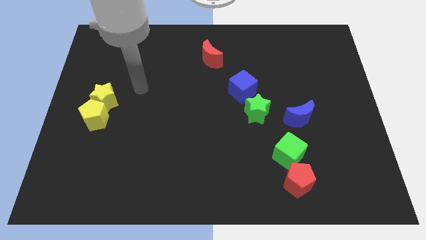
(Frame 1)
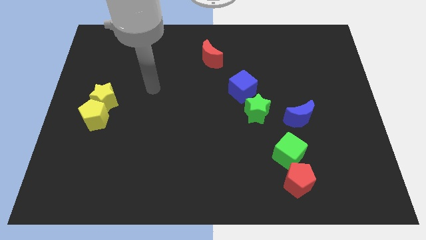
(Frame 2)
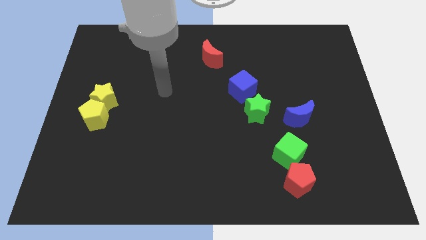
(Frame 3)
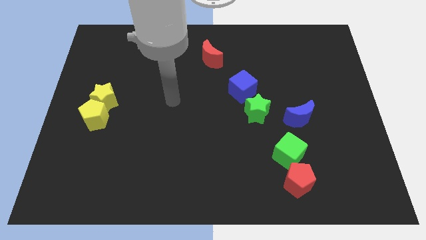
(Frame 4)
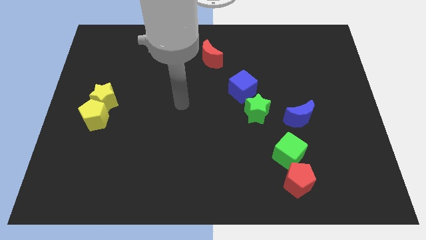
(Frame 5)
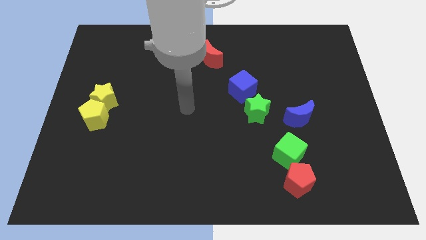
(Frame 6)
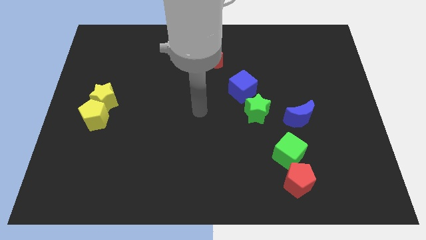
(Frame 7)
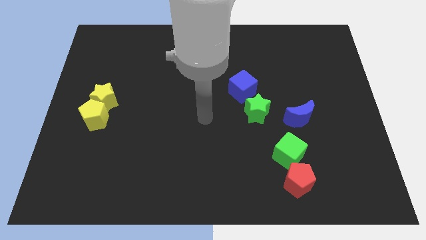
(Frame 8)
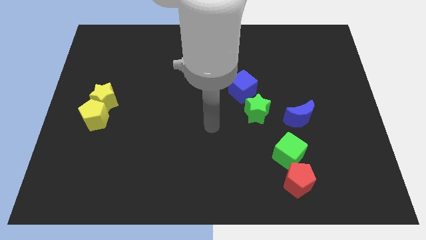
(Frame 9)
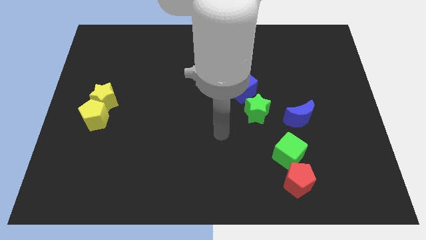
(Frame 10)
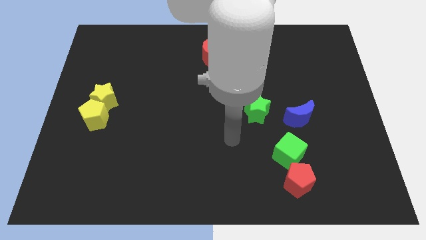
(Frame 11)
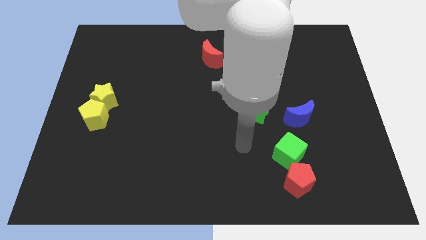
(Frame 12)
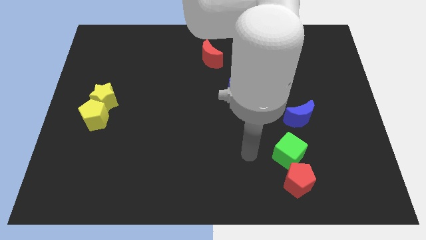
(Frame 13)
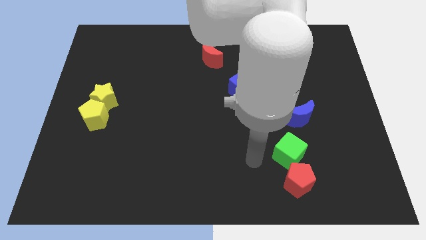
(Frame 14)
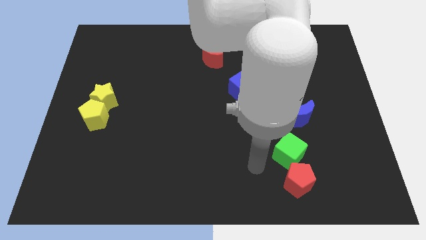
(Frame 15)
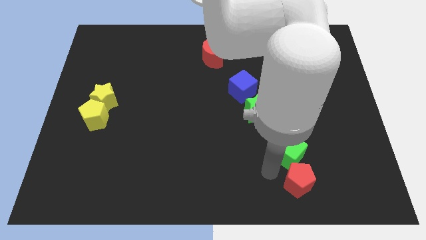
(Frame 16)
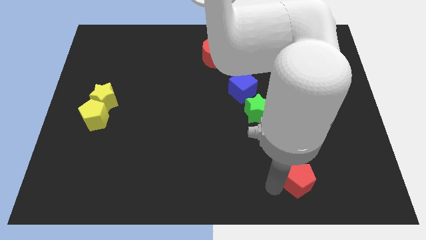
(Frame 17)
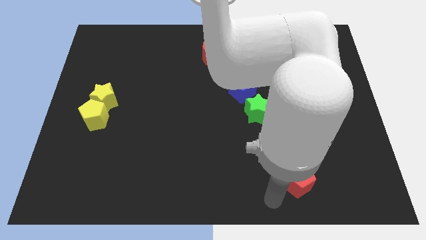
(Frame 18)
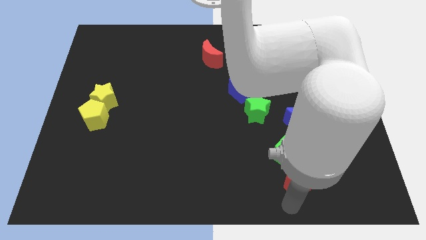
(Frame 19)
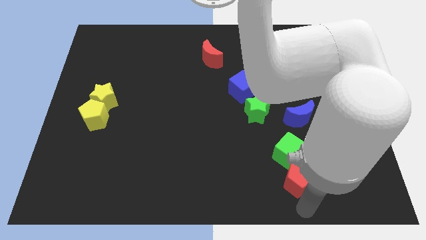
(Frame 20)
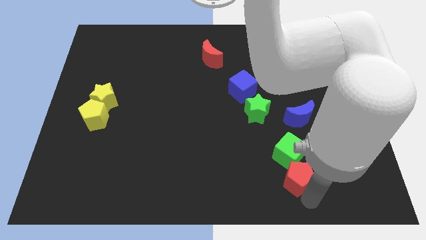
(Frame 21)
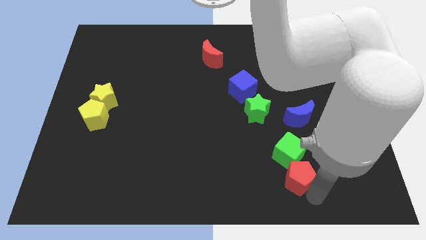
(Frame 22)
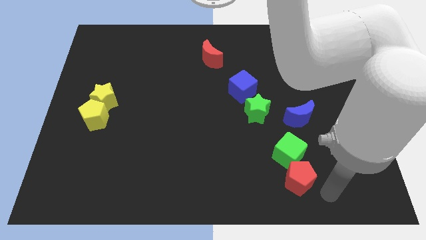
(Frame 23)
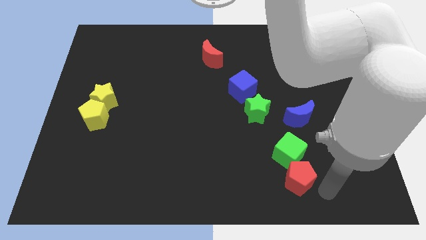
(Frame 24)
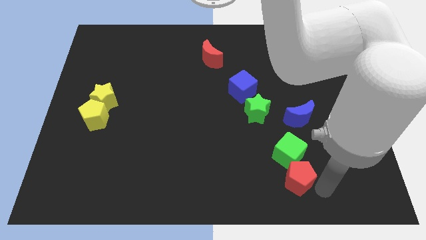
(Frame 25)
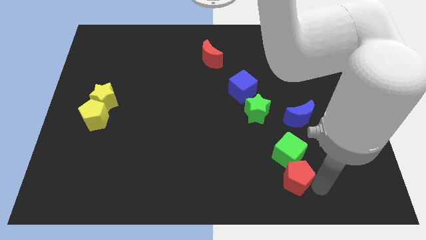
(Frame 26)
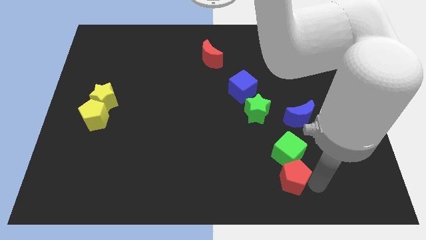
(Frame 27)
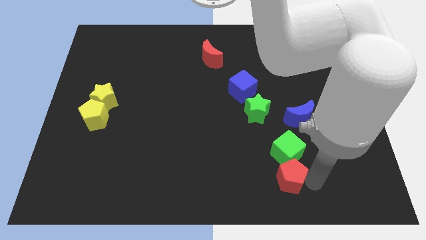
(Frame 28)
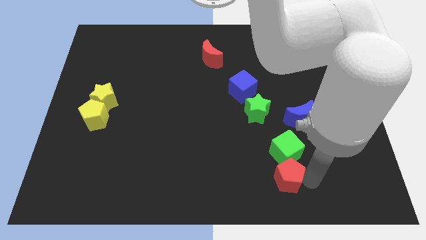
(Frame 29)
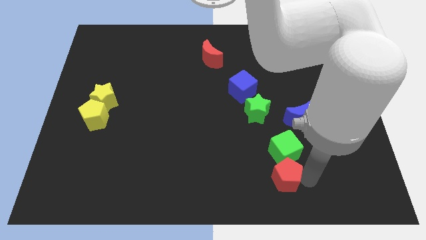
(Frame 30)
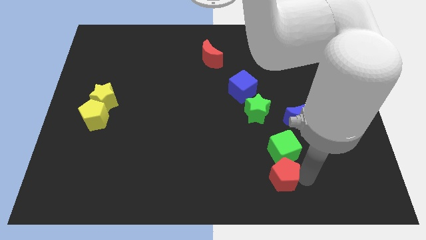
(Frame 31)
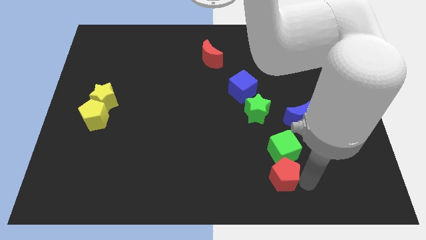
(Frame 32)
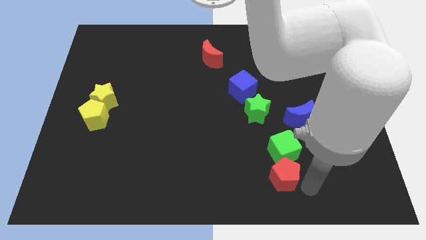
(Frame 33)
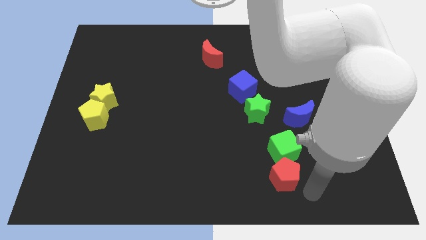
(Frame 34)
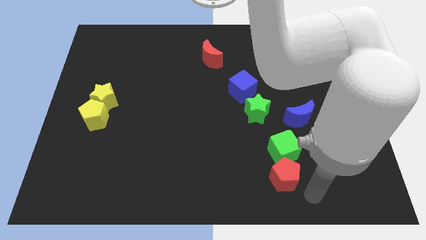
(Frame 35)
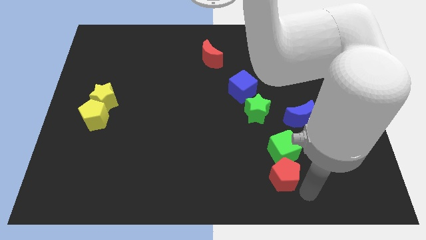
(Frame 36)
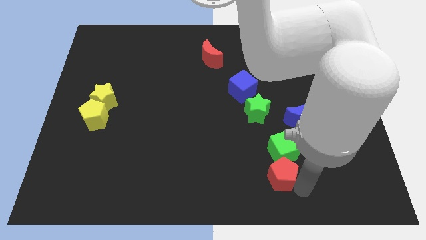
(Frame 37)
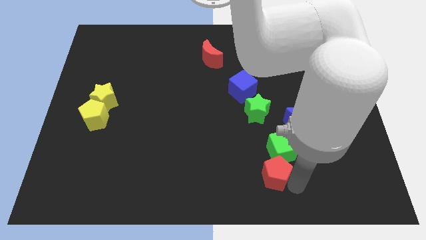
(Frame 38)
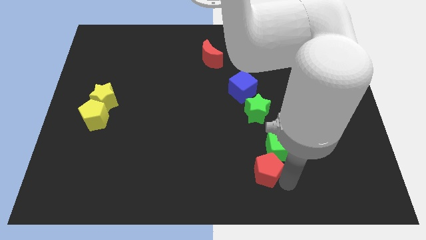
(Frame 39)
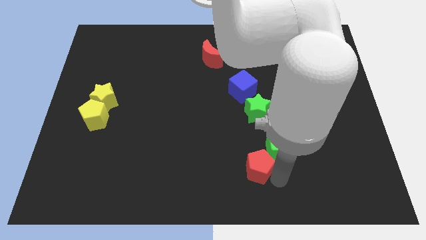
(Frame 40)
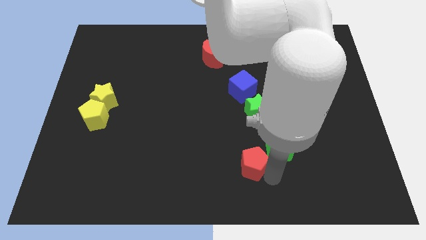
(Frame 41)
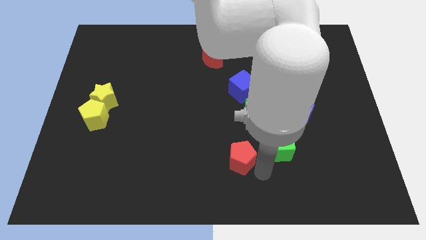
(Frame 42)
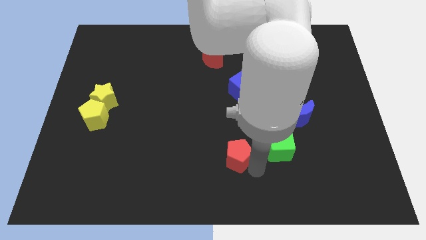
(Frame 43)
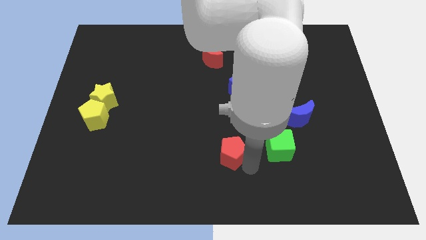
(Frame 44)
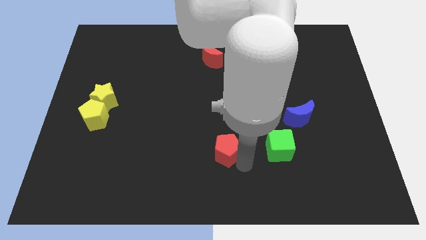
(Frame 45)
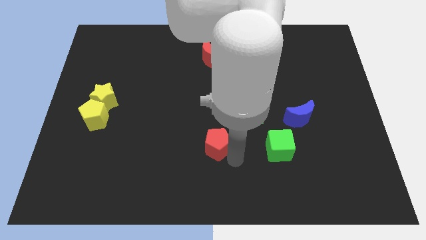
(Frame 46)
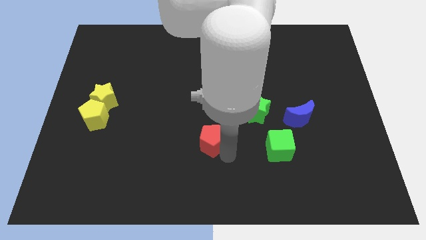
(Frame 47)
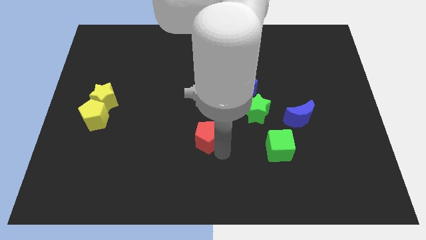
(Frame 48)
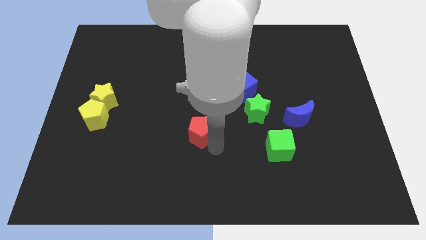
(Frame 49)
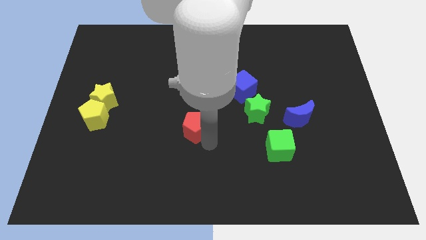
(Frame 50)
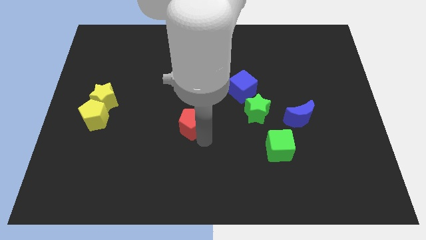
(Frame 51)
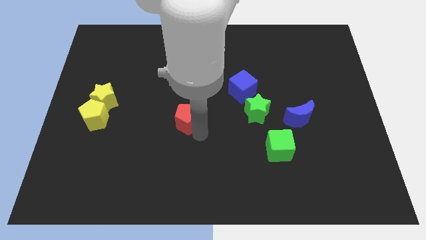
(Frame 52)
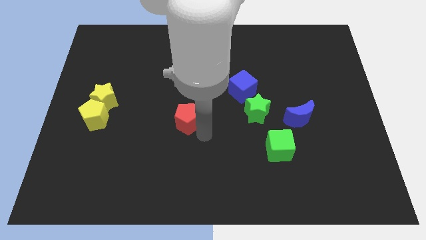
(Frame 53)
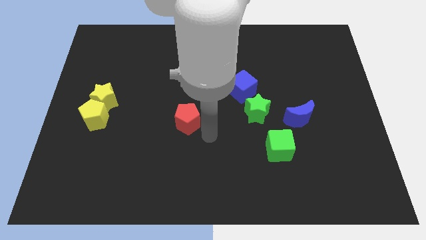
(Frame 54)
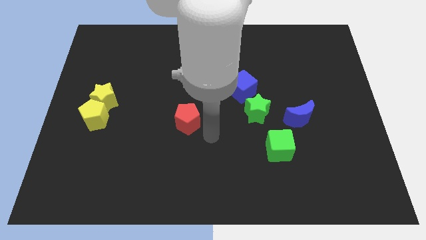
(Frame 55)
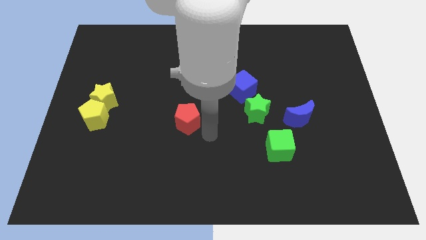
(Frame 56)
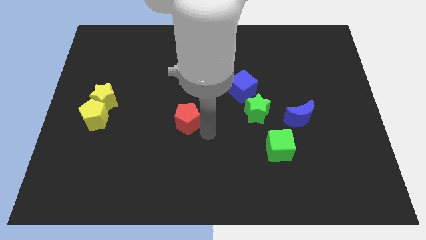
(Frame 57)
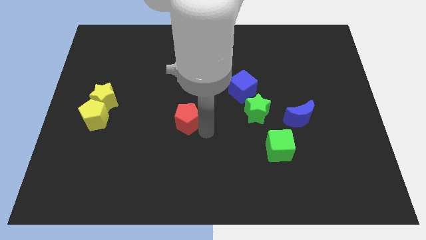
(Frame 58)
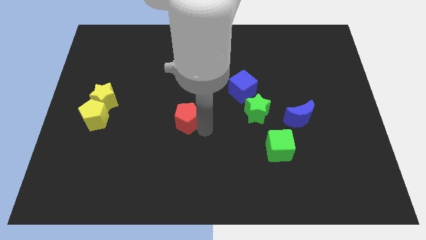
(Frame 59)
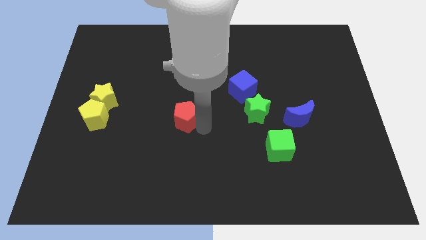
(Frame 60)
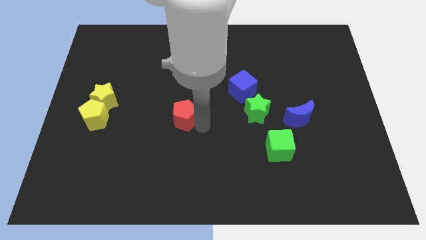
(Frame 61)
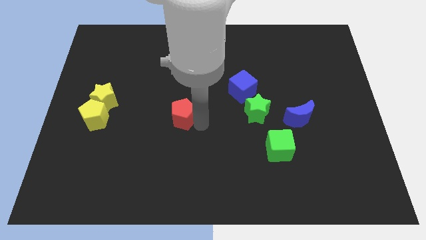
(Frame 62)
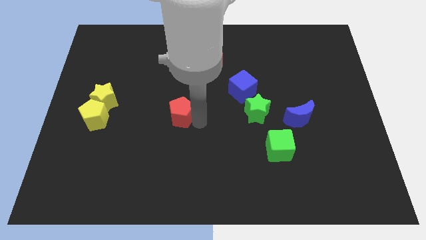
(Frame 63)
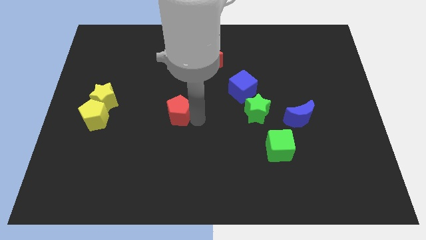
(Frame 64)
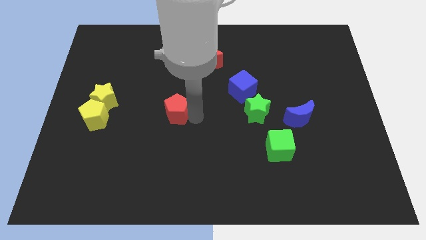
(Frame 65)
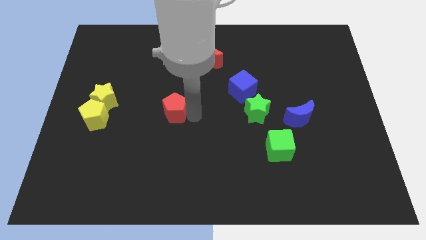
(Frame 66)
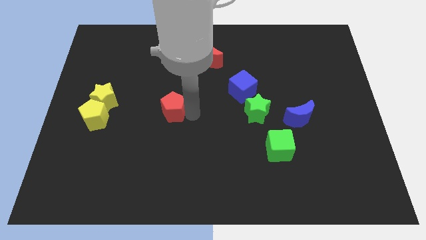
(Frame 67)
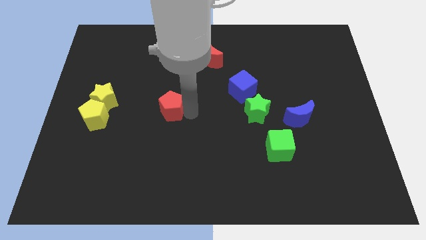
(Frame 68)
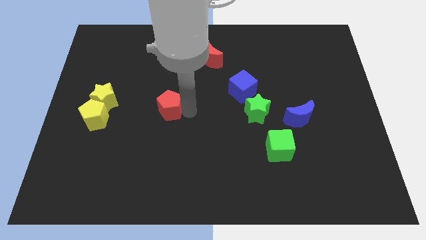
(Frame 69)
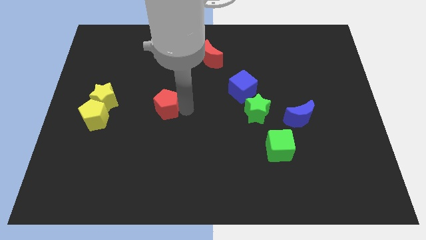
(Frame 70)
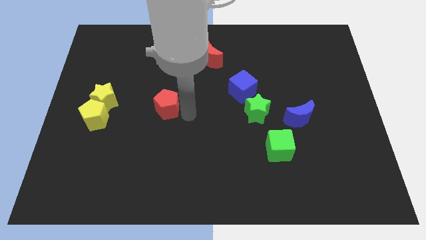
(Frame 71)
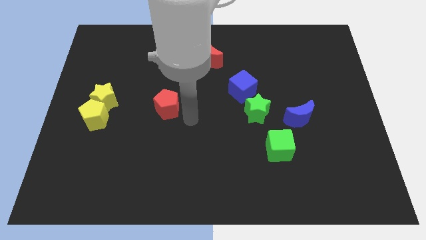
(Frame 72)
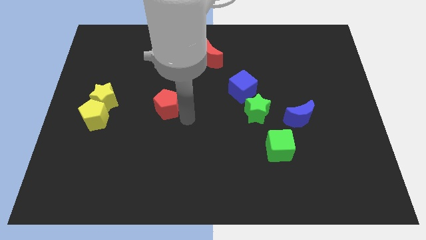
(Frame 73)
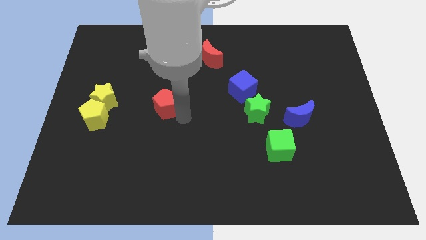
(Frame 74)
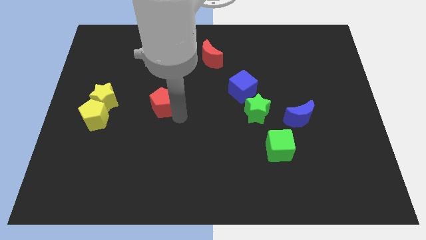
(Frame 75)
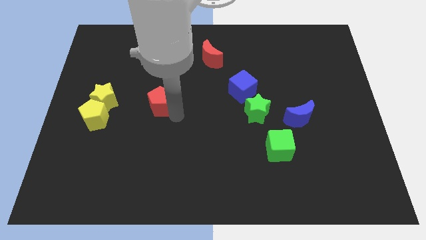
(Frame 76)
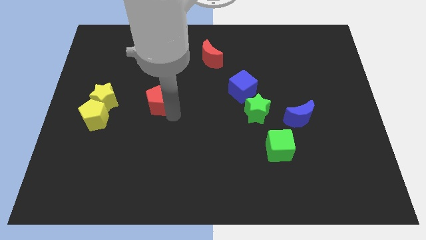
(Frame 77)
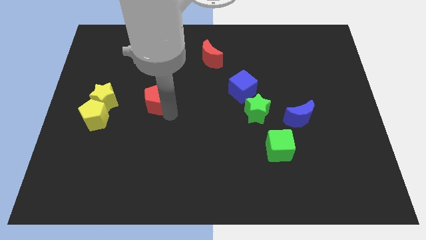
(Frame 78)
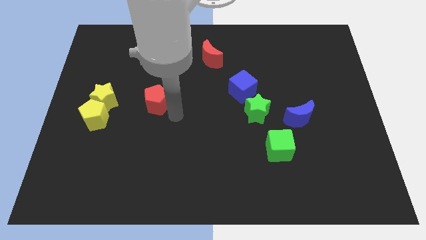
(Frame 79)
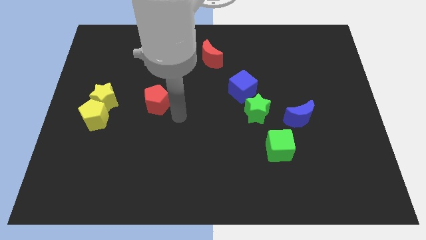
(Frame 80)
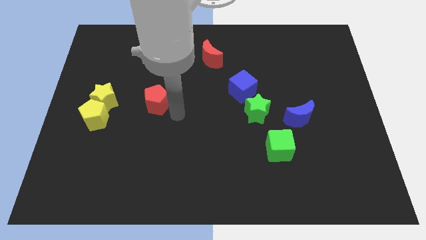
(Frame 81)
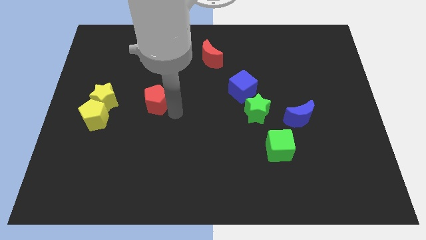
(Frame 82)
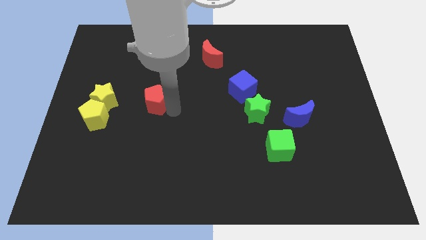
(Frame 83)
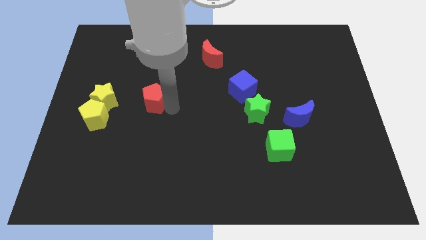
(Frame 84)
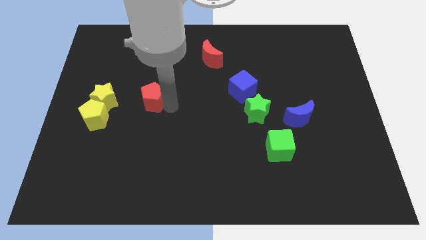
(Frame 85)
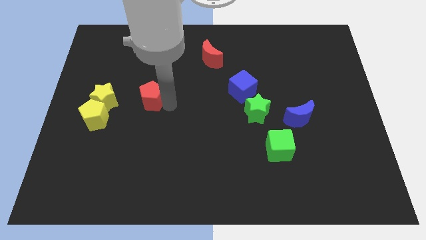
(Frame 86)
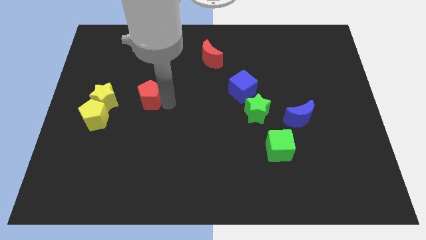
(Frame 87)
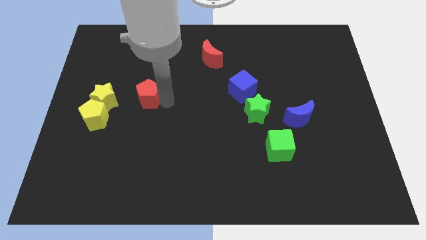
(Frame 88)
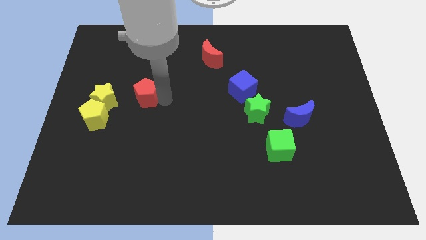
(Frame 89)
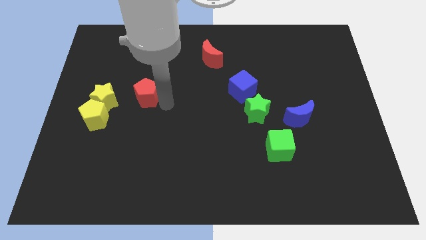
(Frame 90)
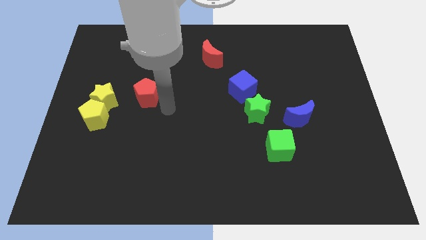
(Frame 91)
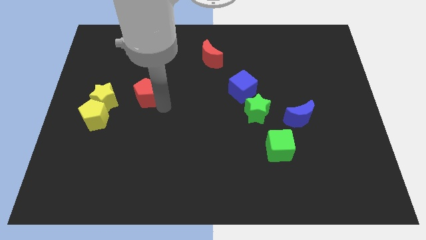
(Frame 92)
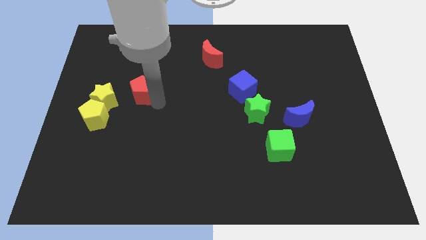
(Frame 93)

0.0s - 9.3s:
move the red pentagon to the top right side of the yellow star
